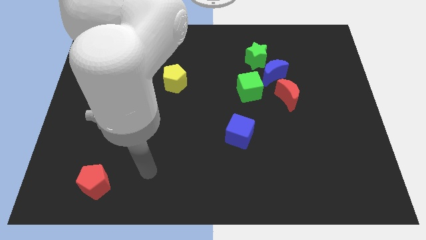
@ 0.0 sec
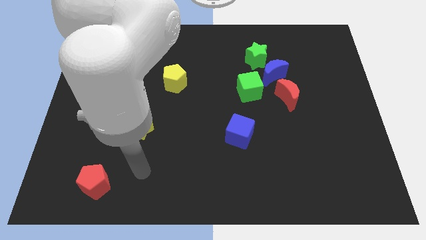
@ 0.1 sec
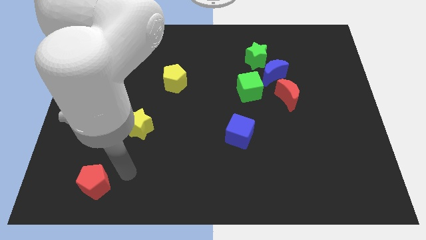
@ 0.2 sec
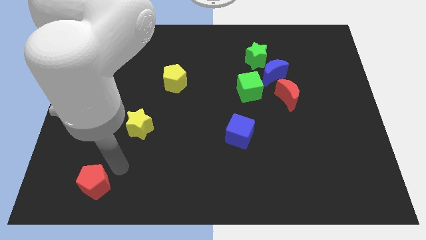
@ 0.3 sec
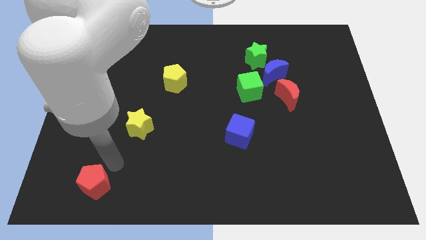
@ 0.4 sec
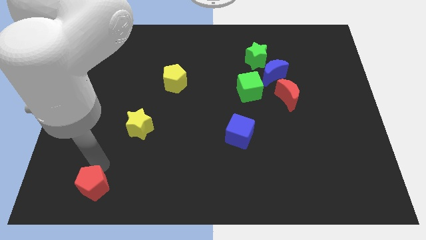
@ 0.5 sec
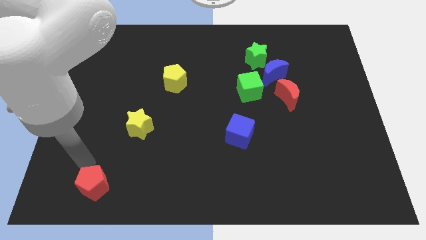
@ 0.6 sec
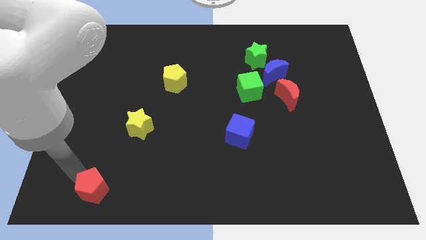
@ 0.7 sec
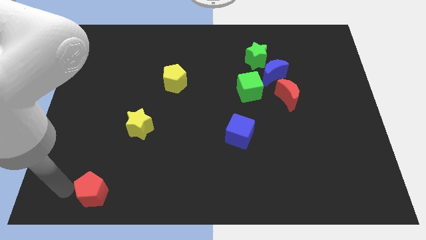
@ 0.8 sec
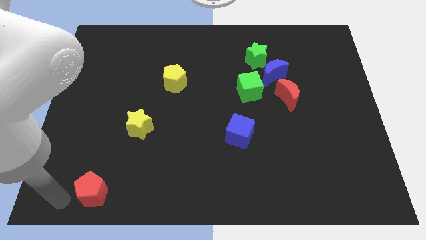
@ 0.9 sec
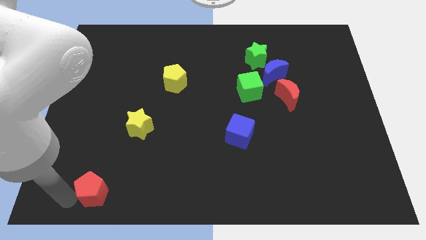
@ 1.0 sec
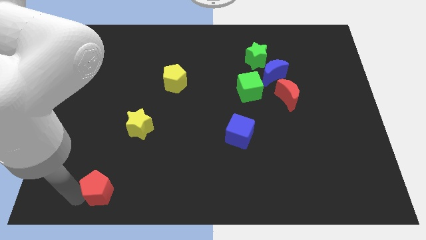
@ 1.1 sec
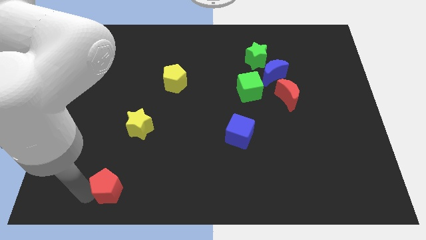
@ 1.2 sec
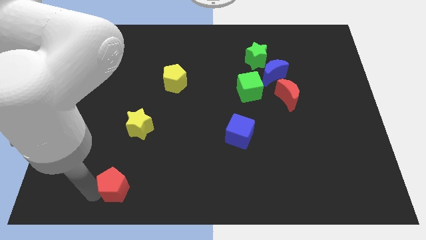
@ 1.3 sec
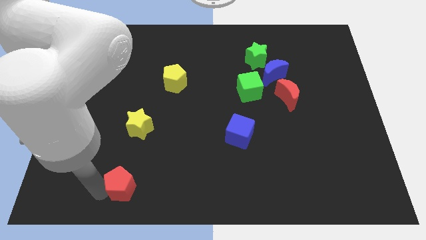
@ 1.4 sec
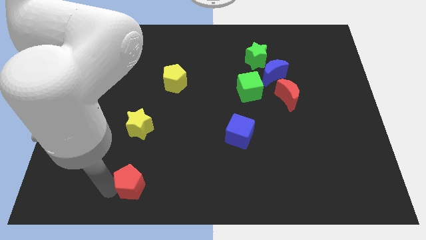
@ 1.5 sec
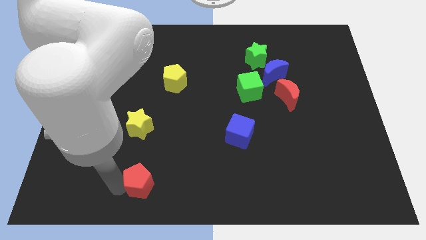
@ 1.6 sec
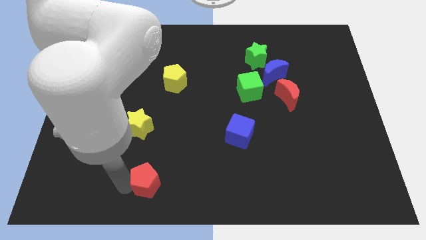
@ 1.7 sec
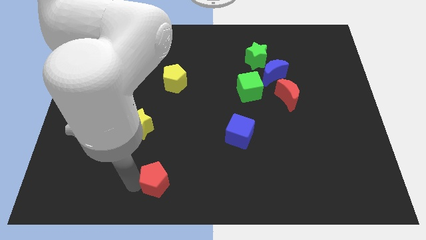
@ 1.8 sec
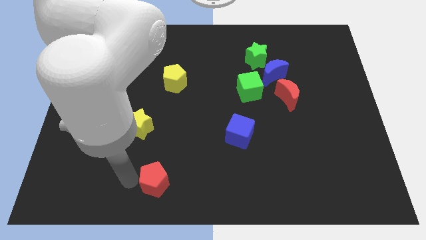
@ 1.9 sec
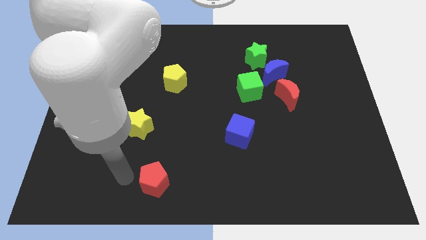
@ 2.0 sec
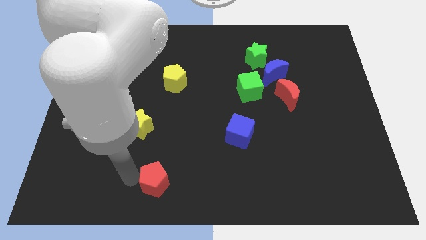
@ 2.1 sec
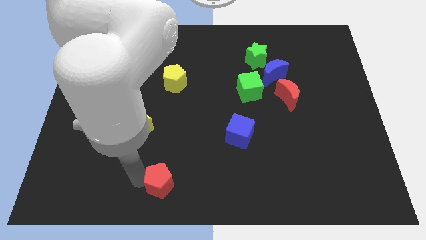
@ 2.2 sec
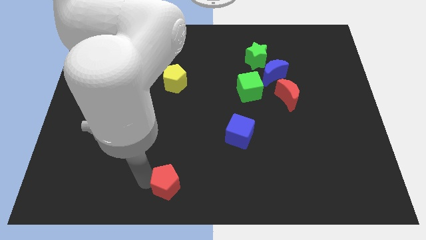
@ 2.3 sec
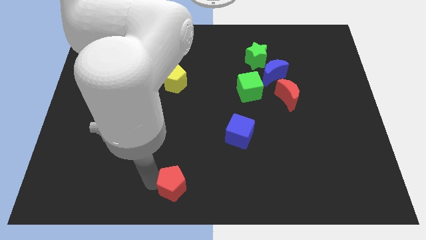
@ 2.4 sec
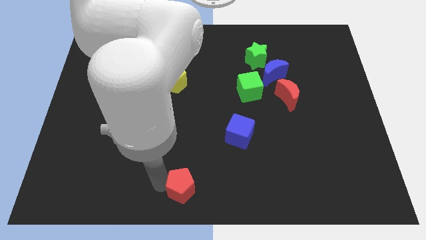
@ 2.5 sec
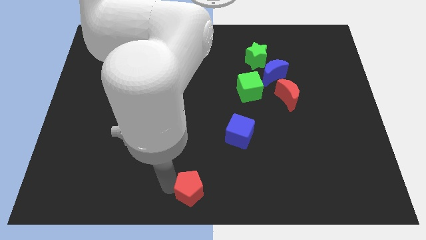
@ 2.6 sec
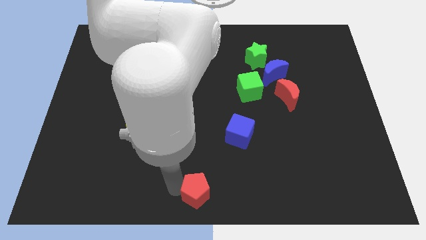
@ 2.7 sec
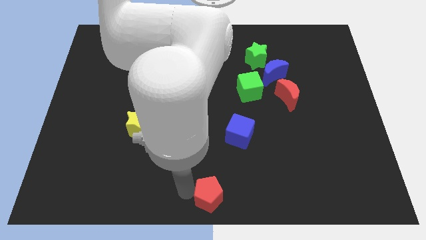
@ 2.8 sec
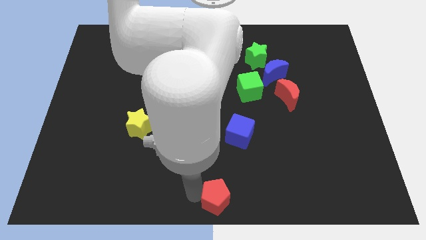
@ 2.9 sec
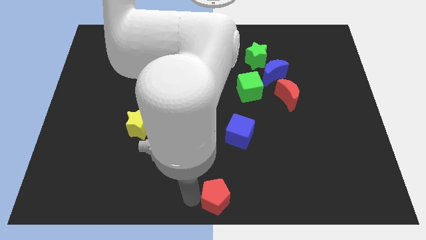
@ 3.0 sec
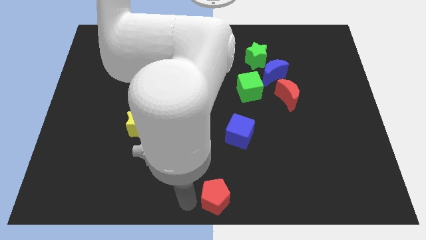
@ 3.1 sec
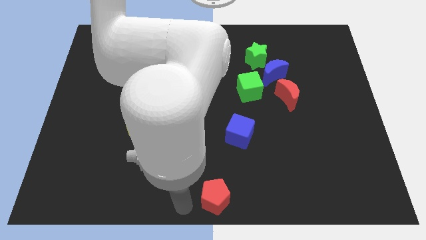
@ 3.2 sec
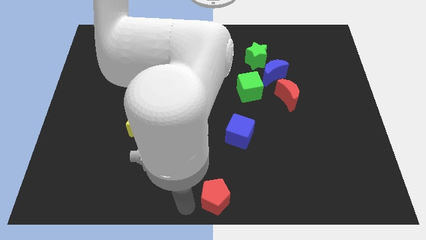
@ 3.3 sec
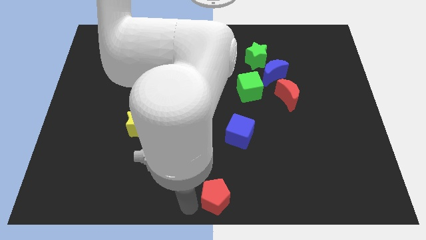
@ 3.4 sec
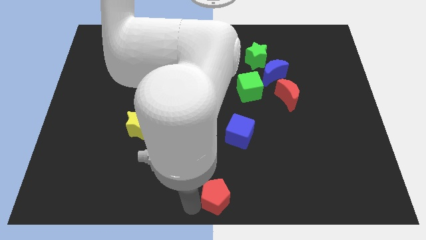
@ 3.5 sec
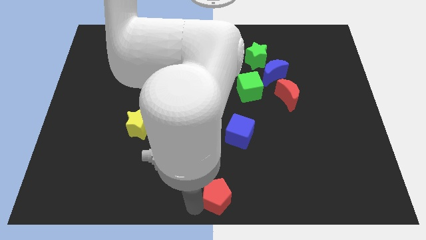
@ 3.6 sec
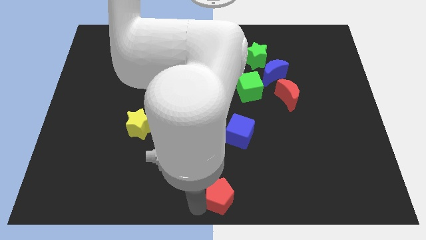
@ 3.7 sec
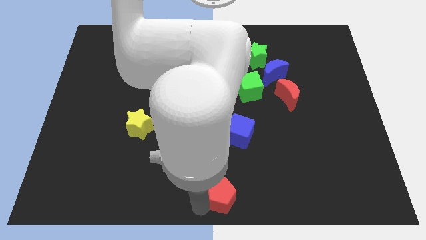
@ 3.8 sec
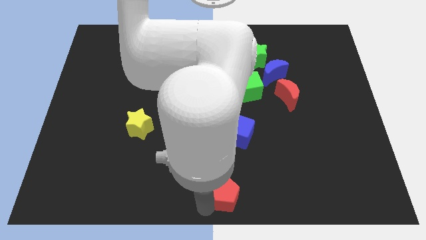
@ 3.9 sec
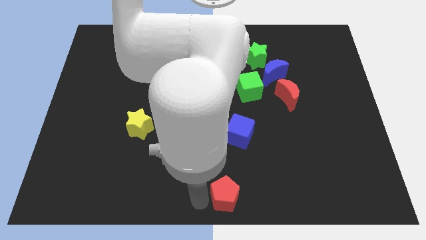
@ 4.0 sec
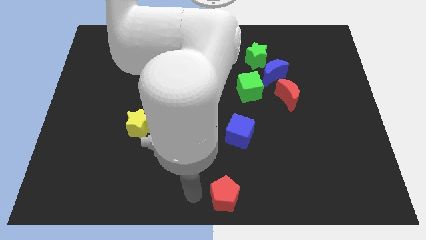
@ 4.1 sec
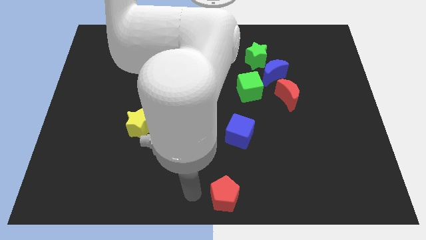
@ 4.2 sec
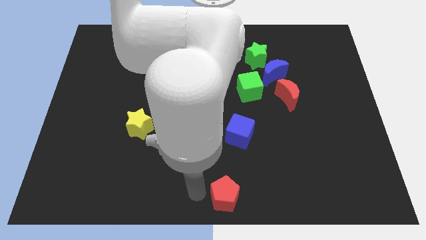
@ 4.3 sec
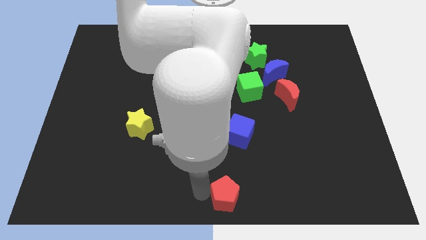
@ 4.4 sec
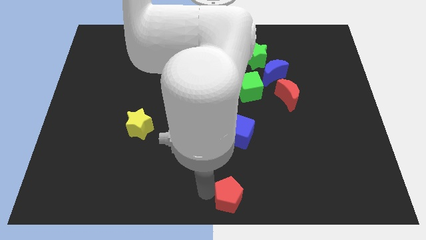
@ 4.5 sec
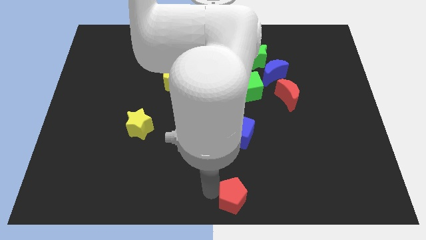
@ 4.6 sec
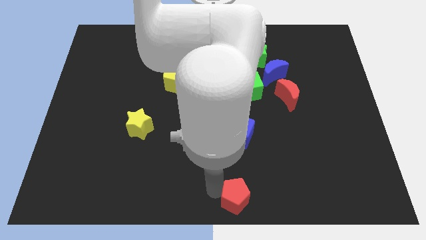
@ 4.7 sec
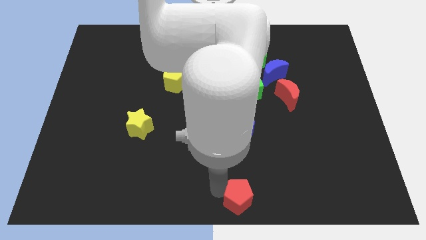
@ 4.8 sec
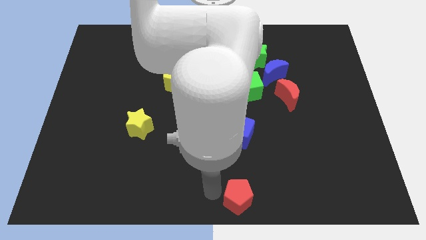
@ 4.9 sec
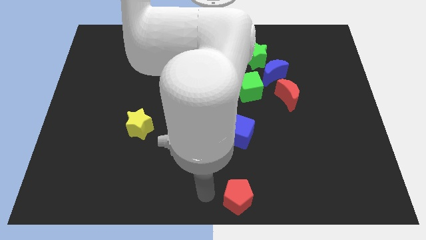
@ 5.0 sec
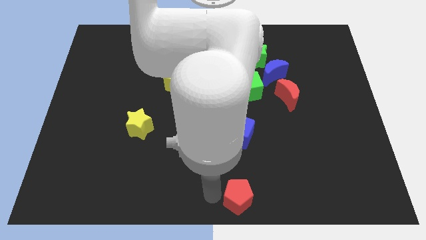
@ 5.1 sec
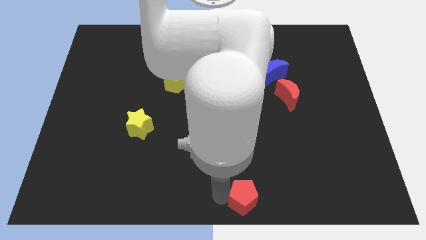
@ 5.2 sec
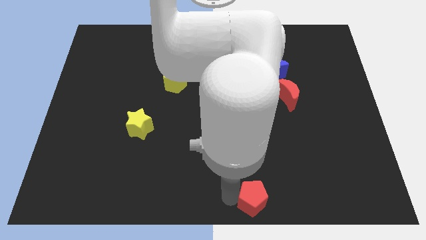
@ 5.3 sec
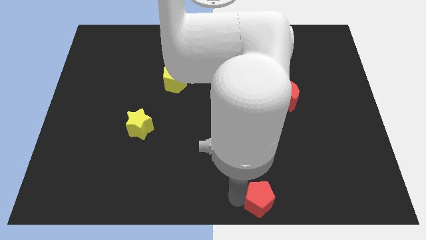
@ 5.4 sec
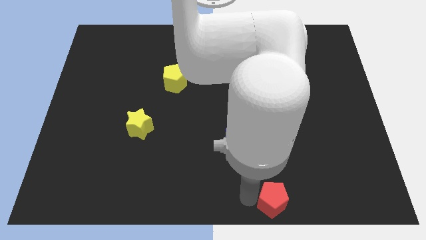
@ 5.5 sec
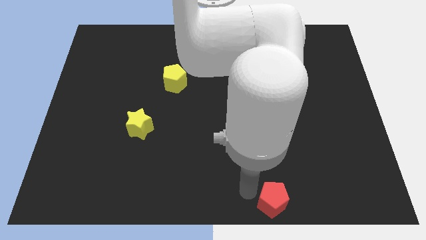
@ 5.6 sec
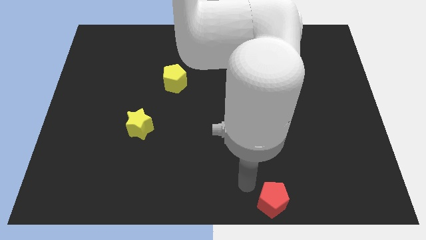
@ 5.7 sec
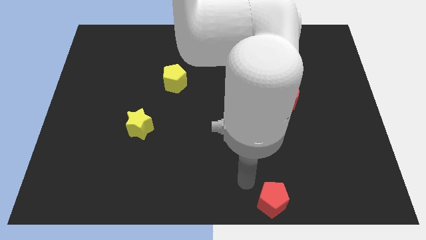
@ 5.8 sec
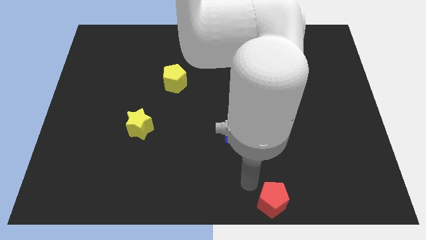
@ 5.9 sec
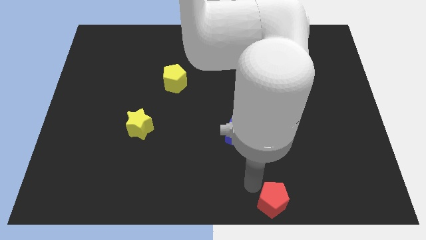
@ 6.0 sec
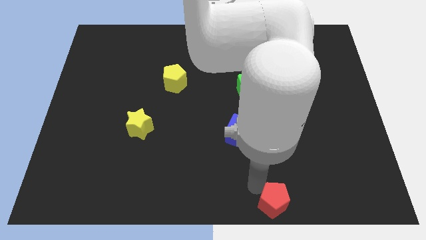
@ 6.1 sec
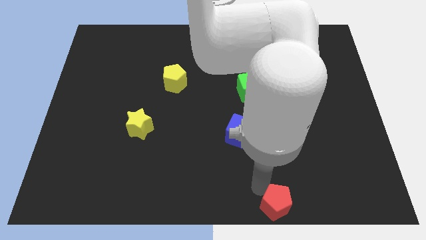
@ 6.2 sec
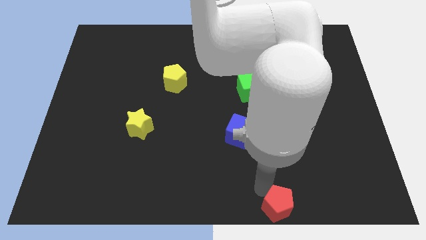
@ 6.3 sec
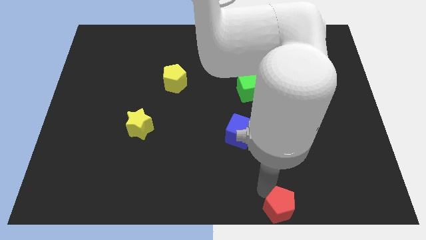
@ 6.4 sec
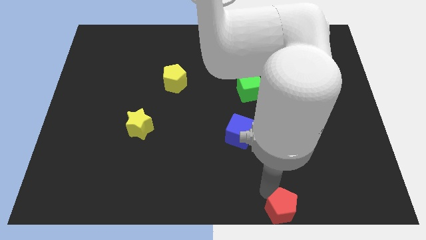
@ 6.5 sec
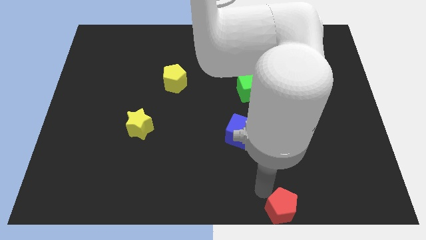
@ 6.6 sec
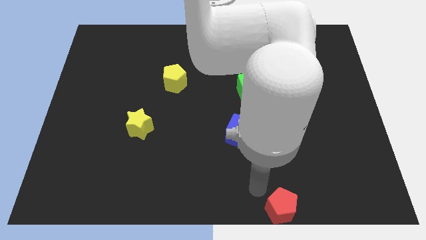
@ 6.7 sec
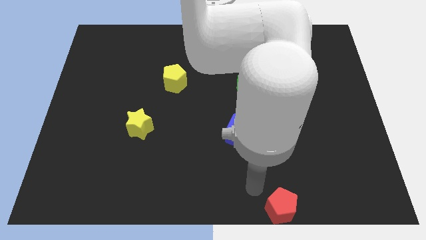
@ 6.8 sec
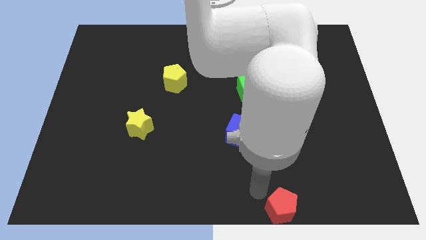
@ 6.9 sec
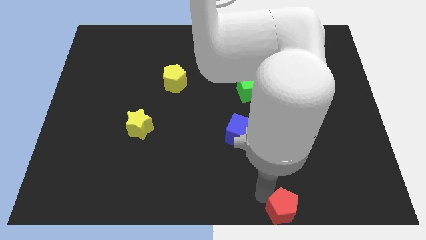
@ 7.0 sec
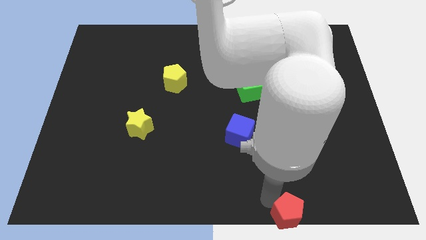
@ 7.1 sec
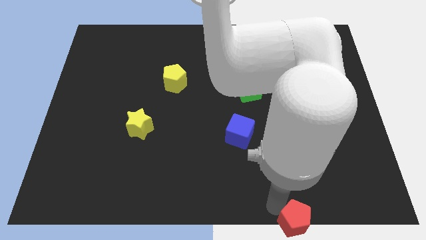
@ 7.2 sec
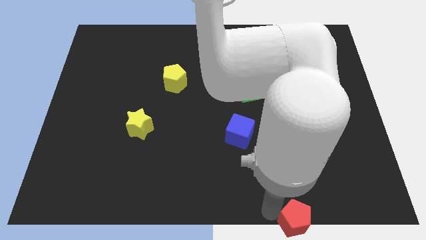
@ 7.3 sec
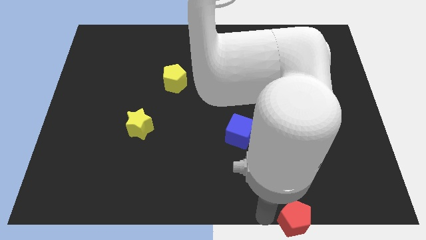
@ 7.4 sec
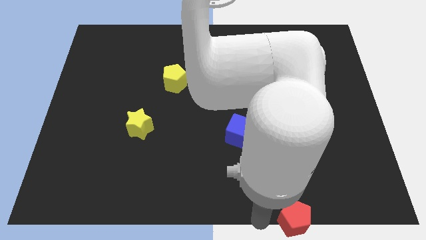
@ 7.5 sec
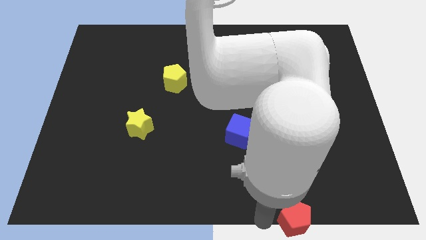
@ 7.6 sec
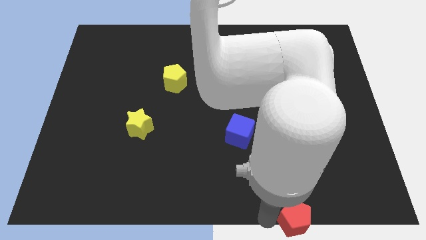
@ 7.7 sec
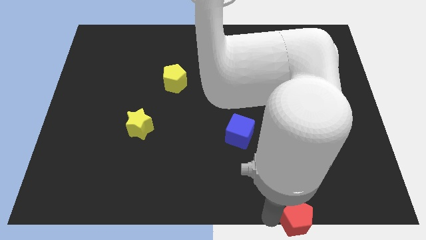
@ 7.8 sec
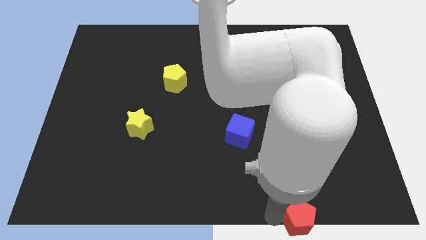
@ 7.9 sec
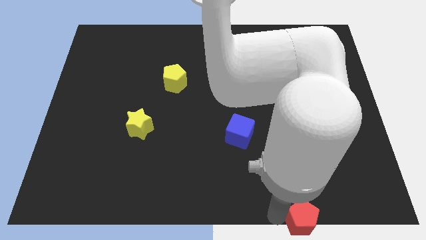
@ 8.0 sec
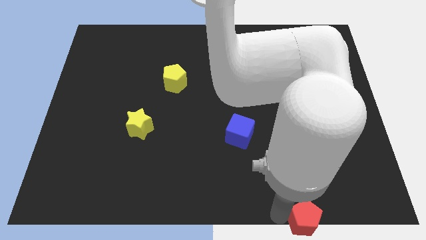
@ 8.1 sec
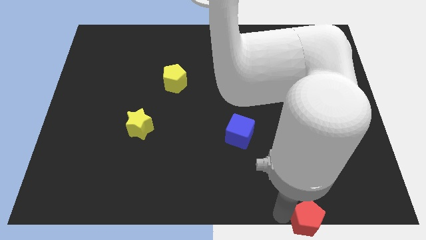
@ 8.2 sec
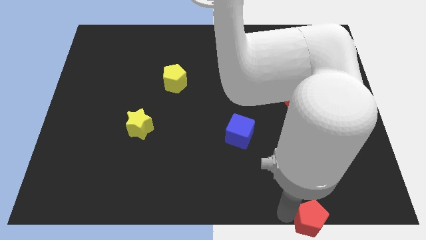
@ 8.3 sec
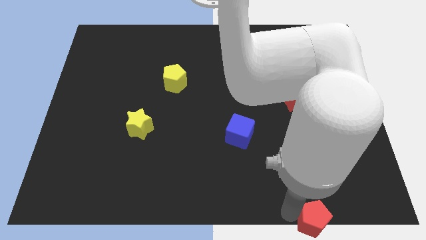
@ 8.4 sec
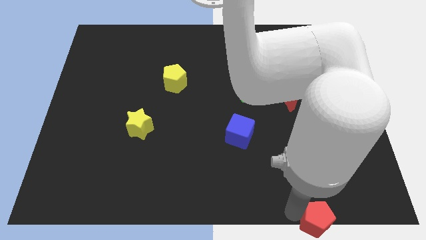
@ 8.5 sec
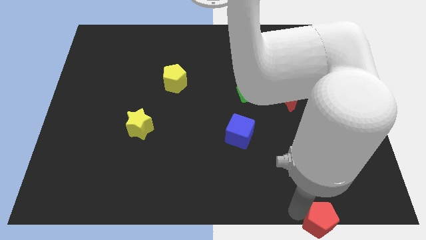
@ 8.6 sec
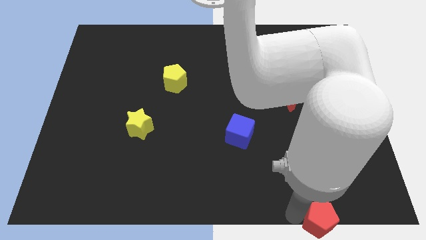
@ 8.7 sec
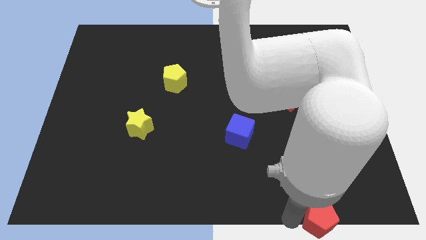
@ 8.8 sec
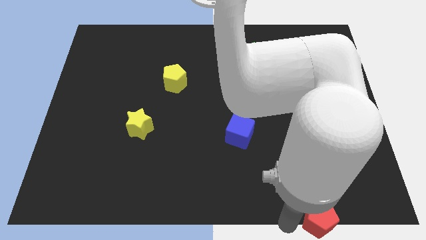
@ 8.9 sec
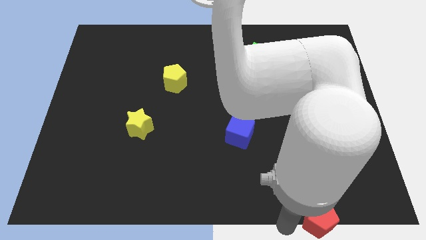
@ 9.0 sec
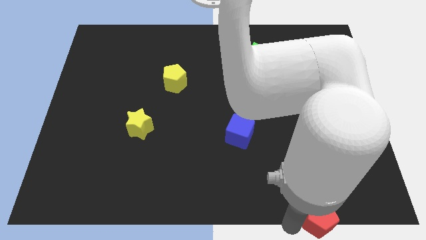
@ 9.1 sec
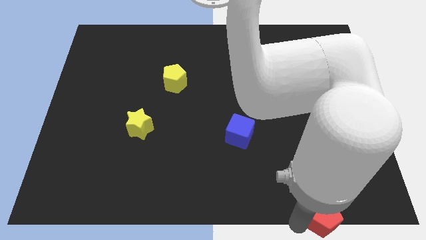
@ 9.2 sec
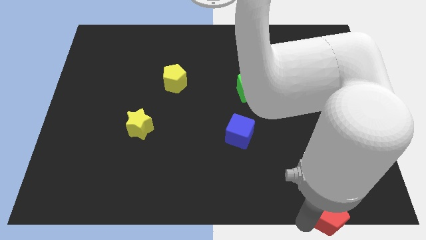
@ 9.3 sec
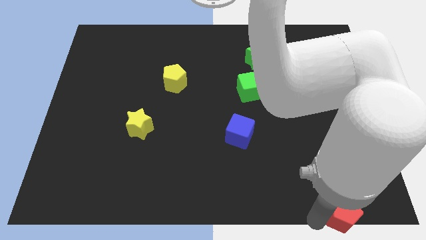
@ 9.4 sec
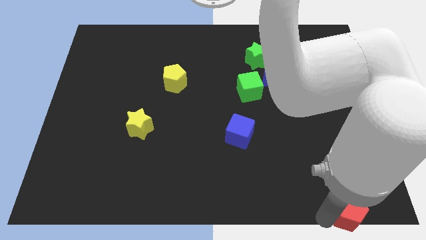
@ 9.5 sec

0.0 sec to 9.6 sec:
move the red pentagon to the lower right corner
